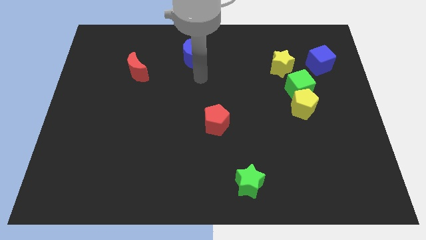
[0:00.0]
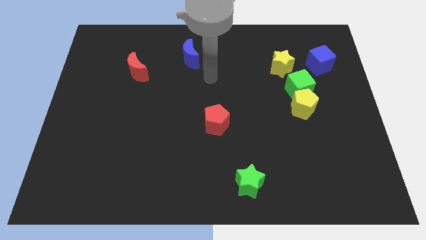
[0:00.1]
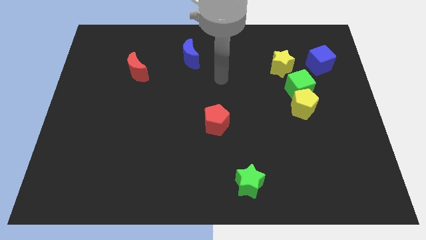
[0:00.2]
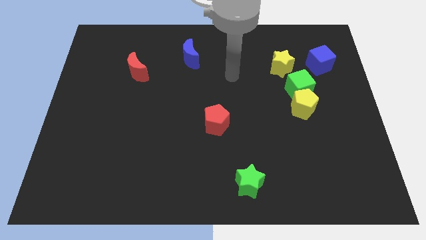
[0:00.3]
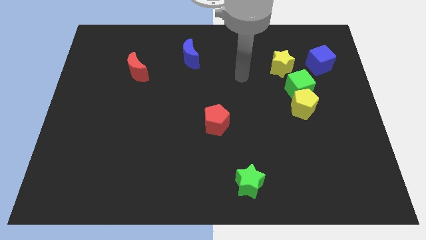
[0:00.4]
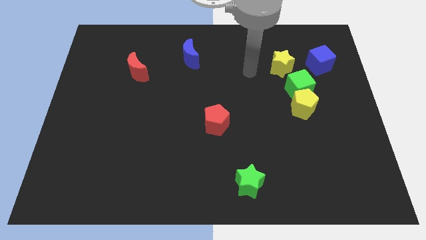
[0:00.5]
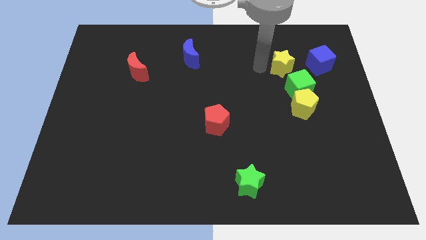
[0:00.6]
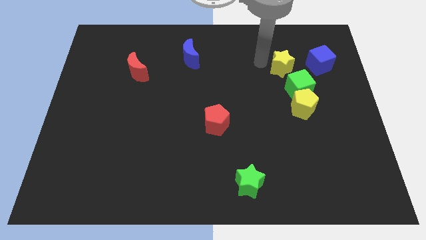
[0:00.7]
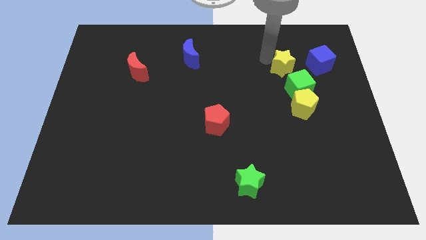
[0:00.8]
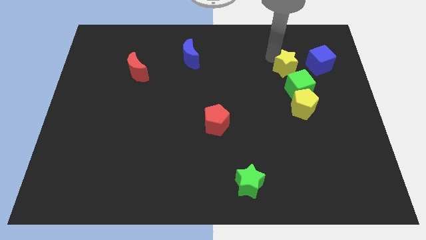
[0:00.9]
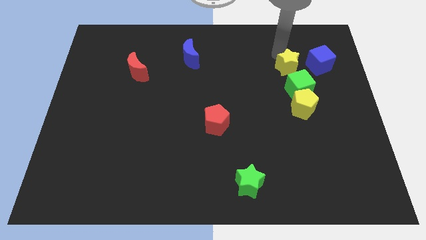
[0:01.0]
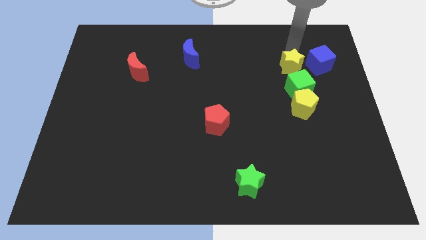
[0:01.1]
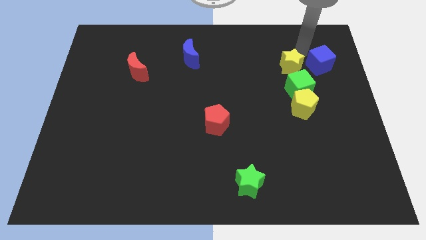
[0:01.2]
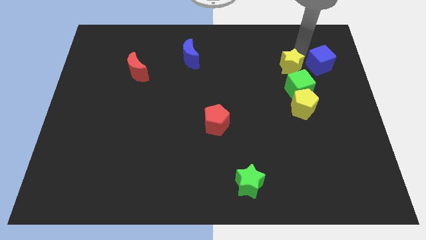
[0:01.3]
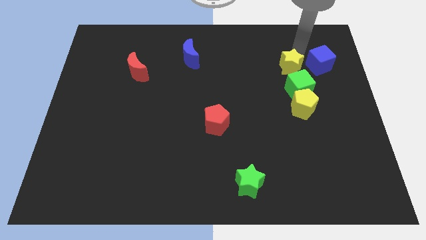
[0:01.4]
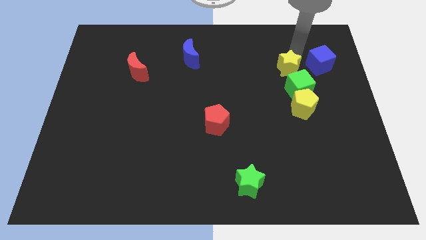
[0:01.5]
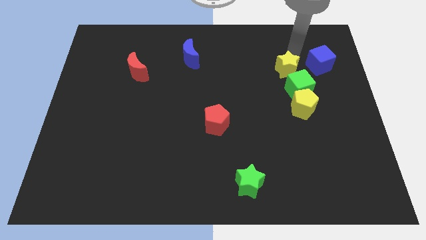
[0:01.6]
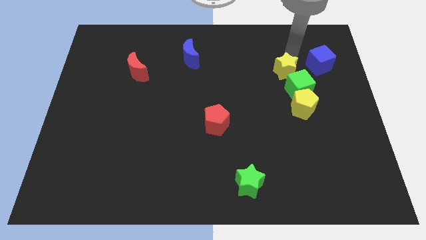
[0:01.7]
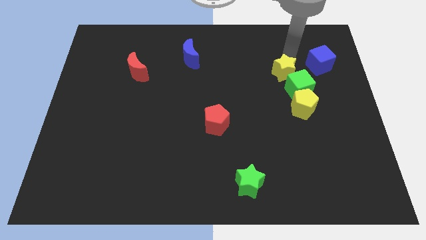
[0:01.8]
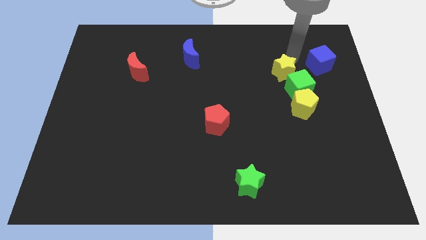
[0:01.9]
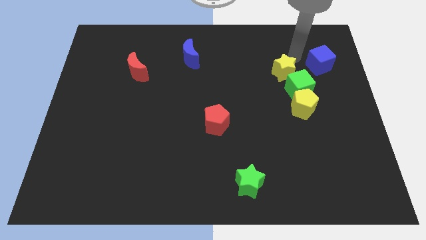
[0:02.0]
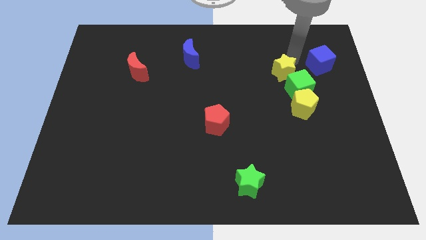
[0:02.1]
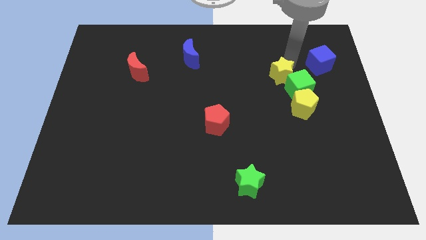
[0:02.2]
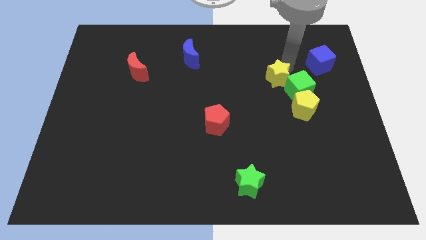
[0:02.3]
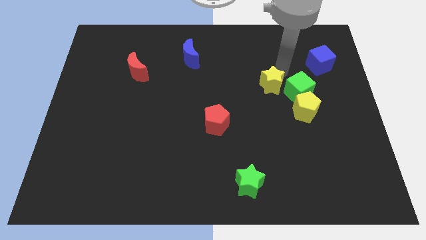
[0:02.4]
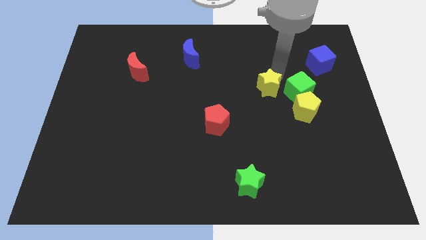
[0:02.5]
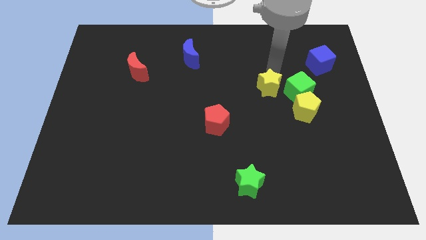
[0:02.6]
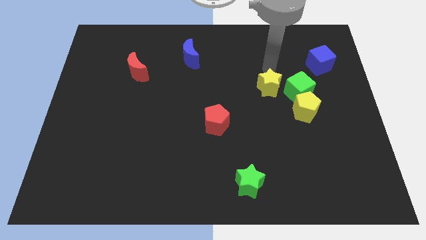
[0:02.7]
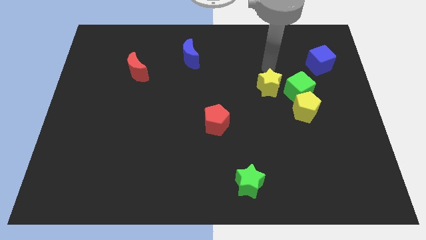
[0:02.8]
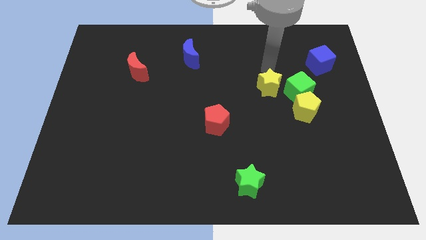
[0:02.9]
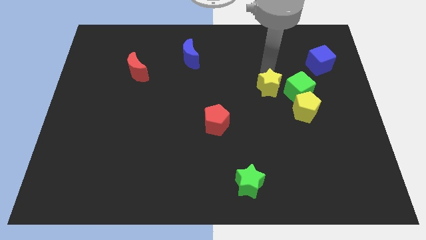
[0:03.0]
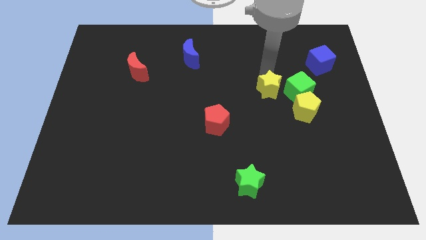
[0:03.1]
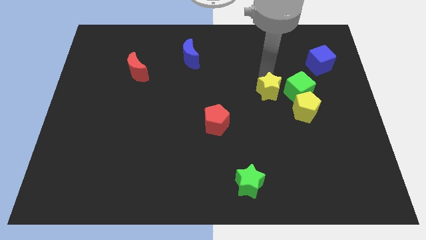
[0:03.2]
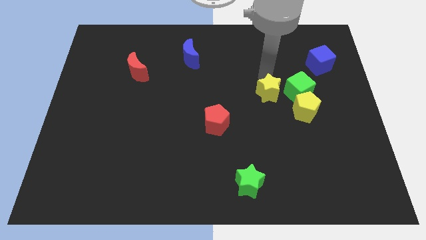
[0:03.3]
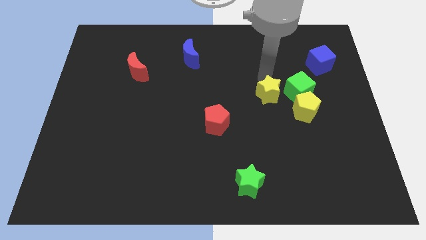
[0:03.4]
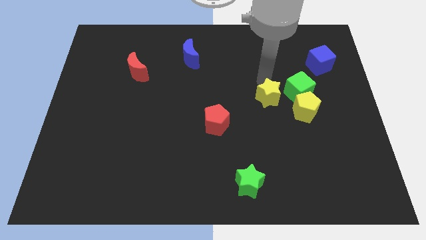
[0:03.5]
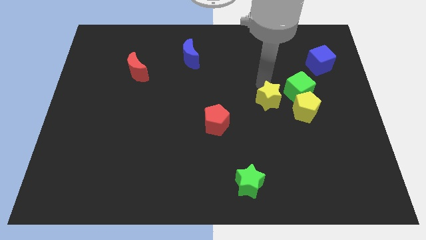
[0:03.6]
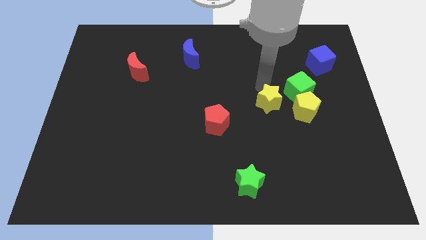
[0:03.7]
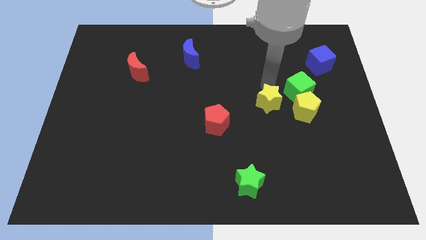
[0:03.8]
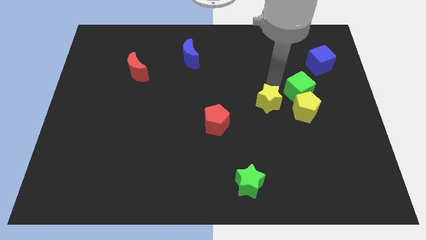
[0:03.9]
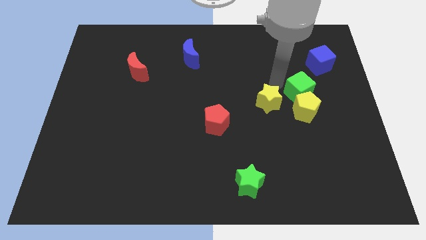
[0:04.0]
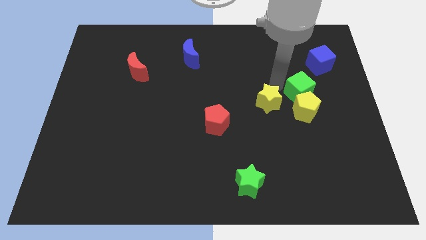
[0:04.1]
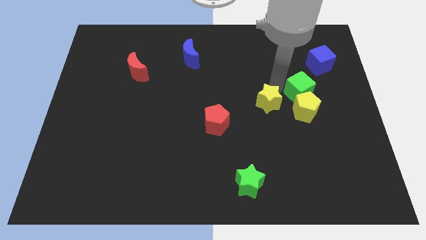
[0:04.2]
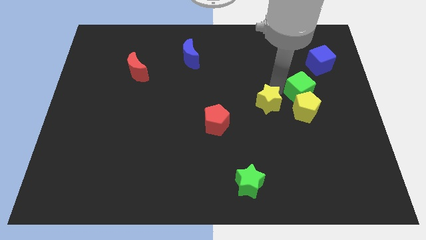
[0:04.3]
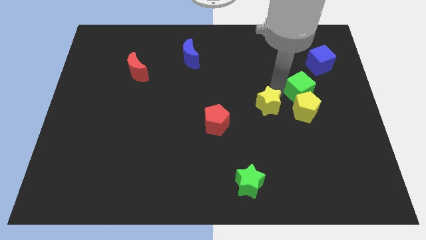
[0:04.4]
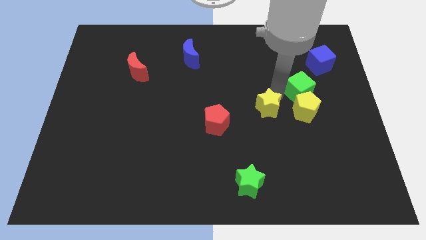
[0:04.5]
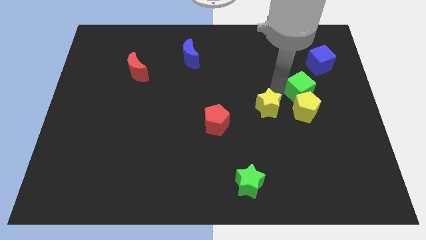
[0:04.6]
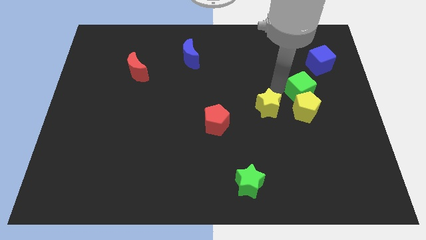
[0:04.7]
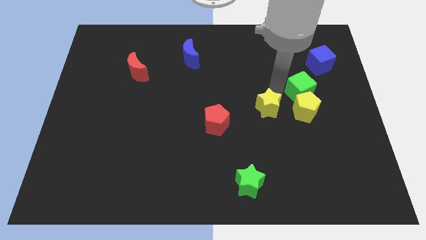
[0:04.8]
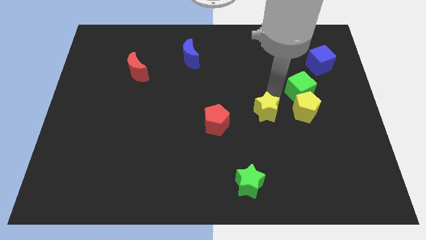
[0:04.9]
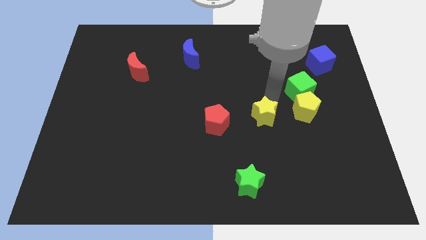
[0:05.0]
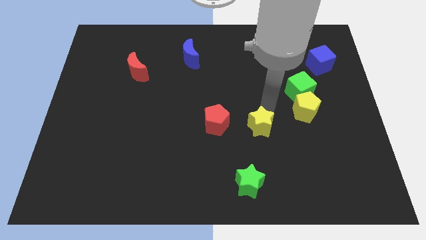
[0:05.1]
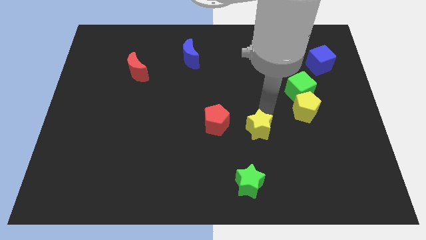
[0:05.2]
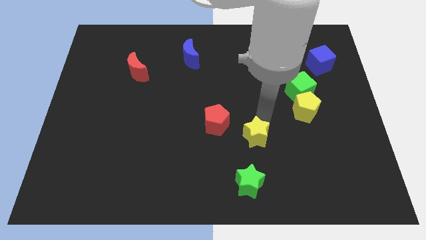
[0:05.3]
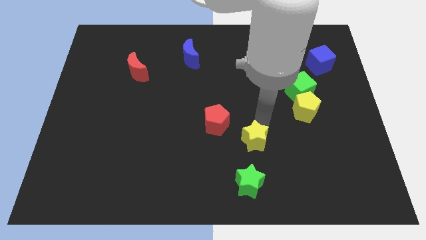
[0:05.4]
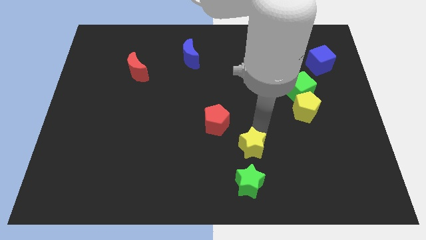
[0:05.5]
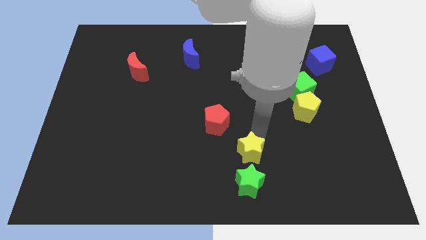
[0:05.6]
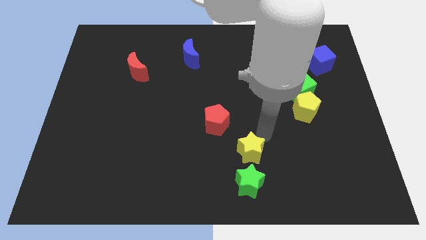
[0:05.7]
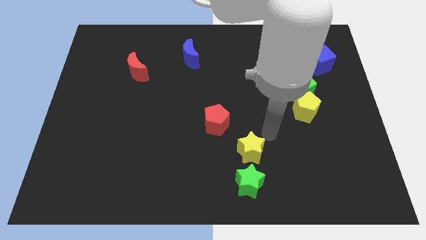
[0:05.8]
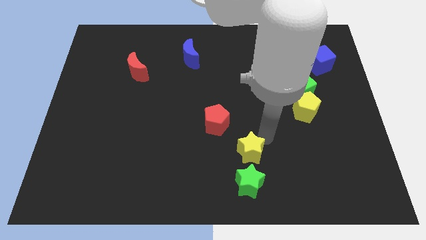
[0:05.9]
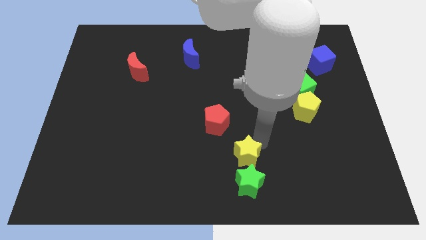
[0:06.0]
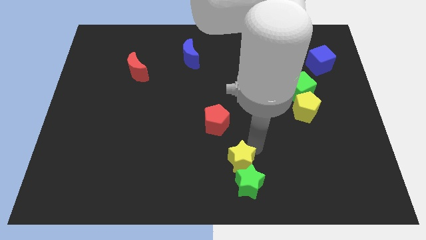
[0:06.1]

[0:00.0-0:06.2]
put the yellow star to the bottom
